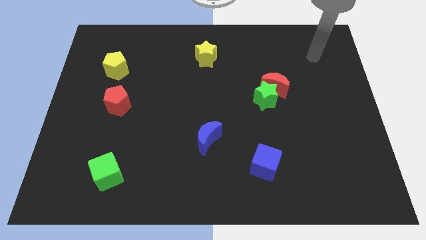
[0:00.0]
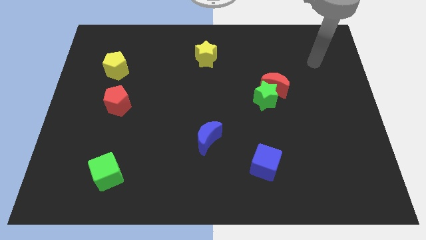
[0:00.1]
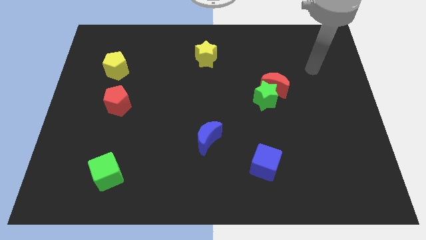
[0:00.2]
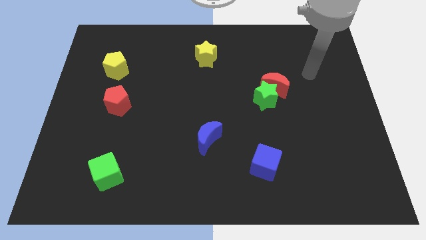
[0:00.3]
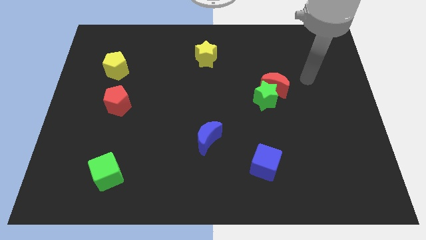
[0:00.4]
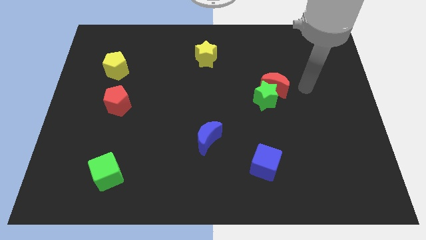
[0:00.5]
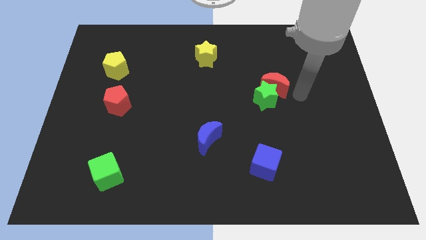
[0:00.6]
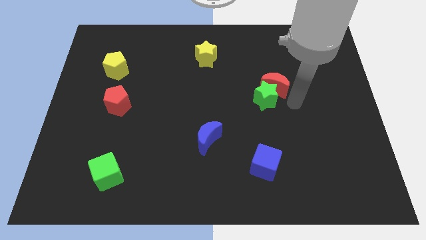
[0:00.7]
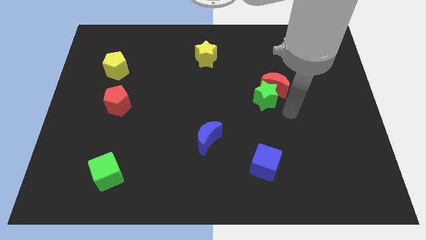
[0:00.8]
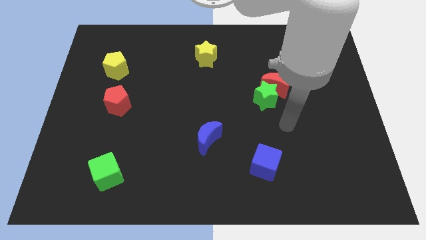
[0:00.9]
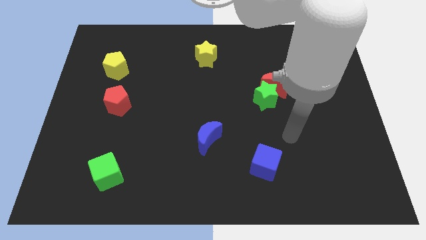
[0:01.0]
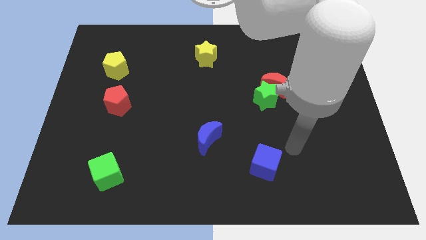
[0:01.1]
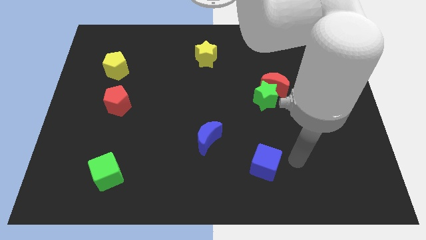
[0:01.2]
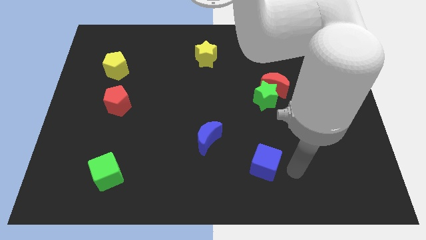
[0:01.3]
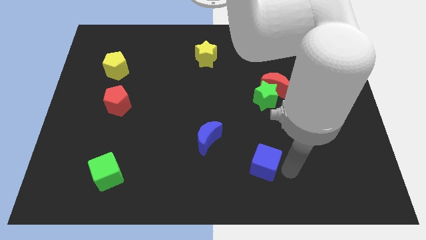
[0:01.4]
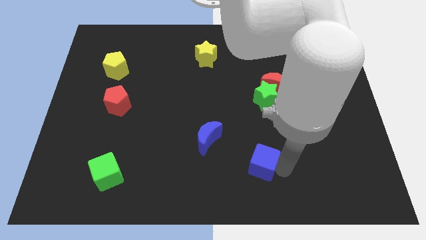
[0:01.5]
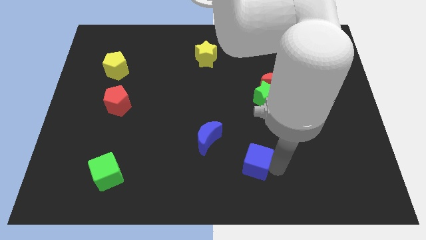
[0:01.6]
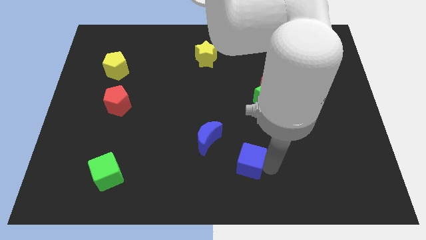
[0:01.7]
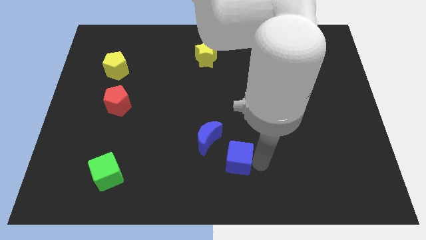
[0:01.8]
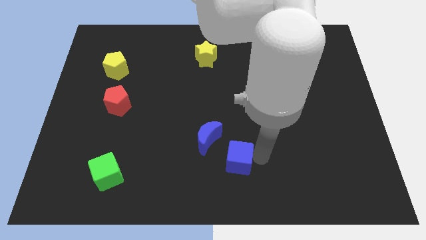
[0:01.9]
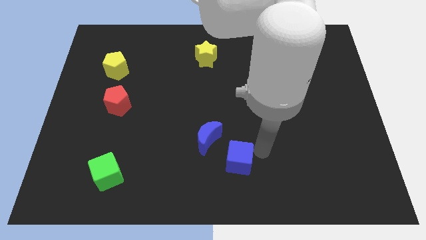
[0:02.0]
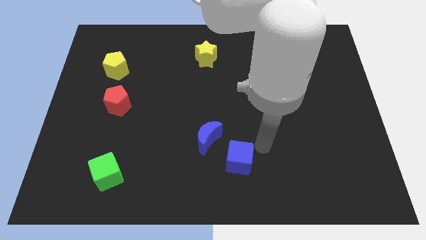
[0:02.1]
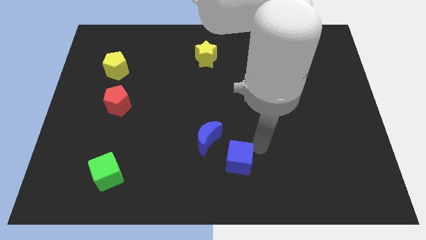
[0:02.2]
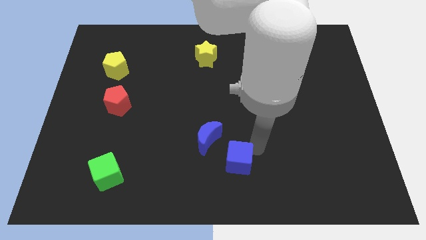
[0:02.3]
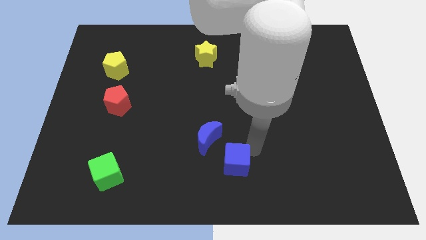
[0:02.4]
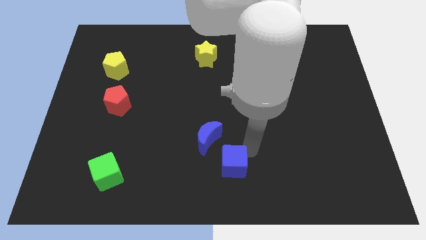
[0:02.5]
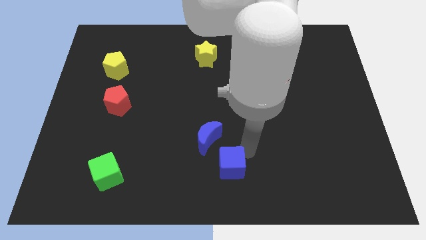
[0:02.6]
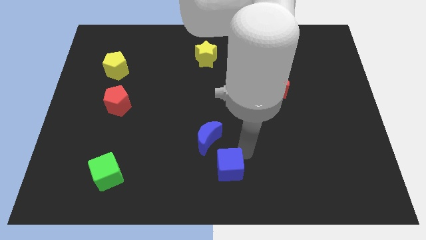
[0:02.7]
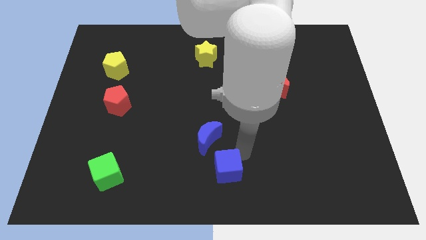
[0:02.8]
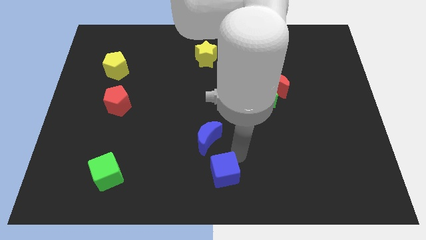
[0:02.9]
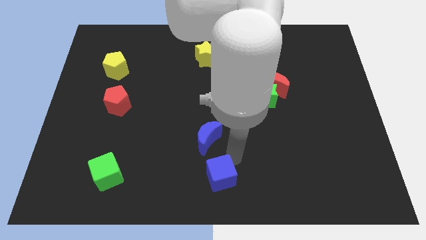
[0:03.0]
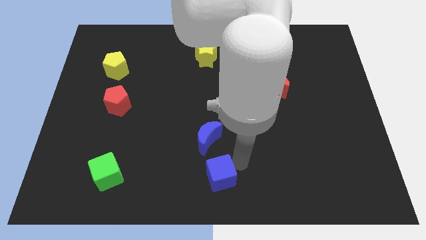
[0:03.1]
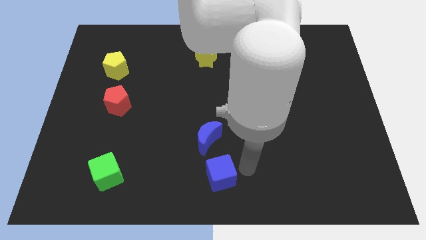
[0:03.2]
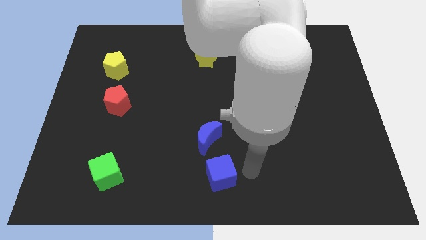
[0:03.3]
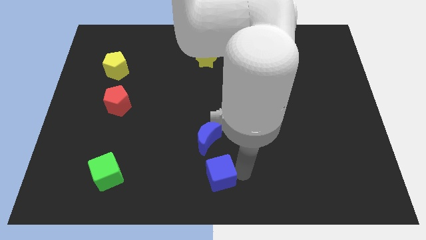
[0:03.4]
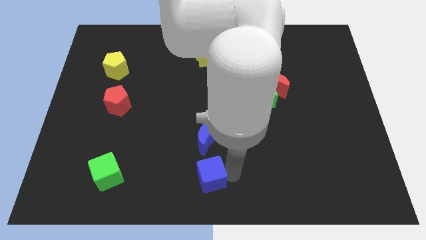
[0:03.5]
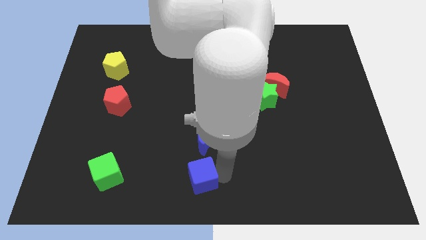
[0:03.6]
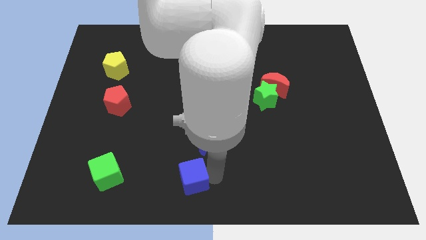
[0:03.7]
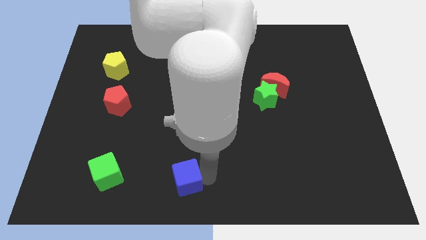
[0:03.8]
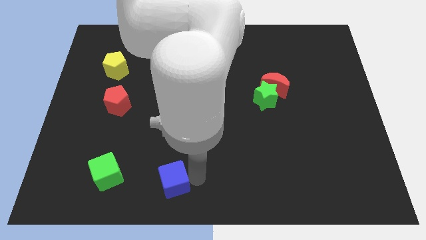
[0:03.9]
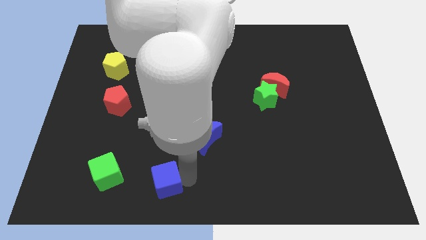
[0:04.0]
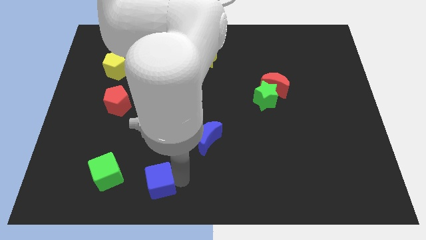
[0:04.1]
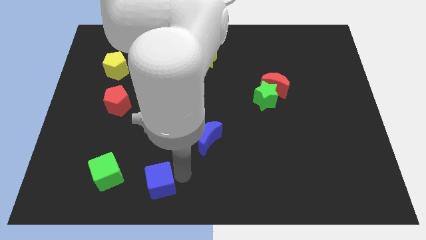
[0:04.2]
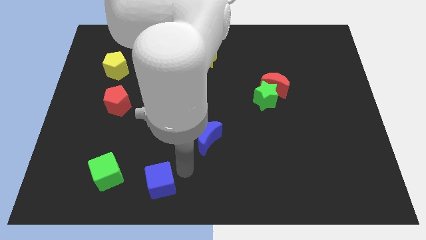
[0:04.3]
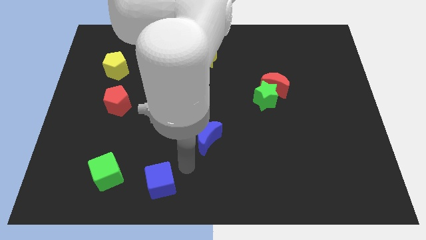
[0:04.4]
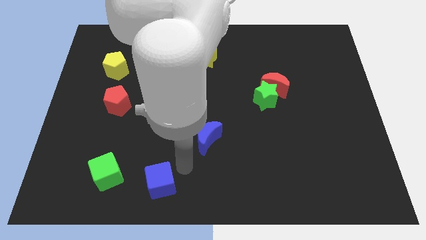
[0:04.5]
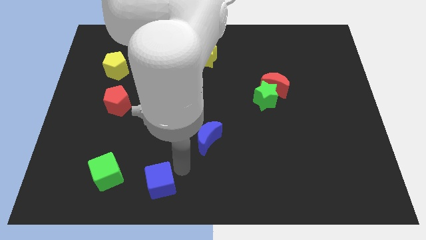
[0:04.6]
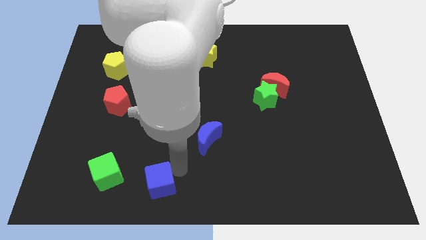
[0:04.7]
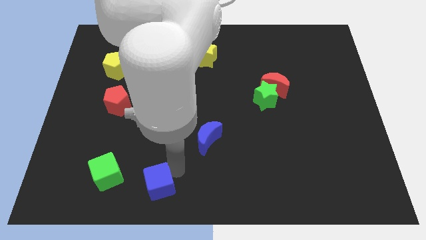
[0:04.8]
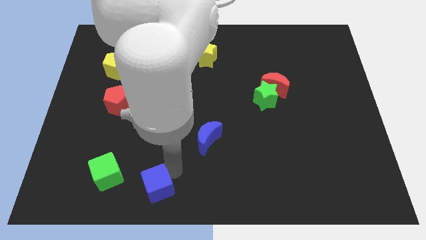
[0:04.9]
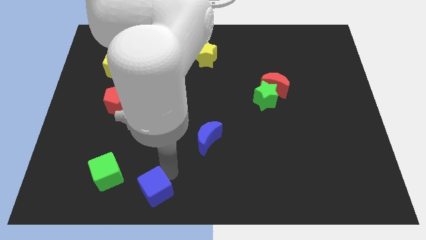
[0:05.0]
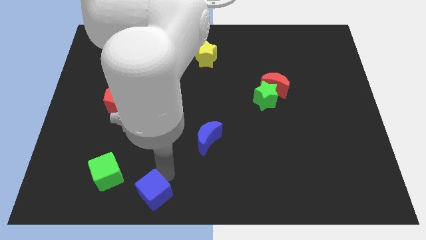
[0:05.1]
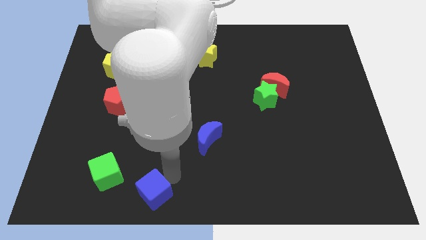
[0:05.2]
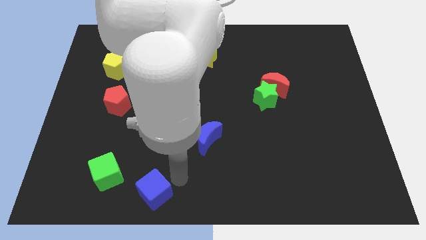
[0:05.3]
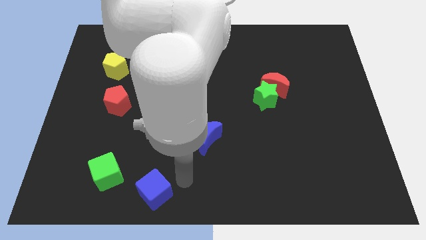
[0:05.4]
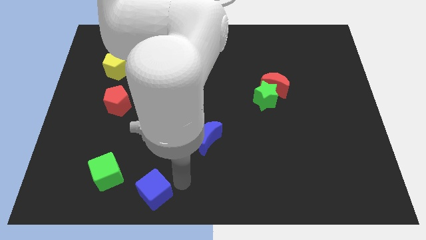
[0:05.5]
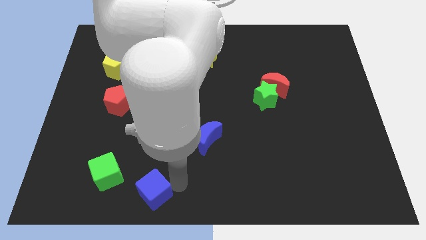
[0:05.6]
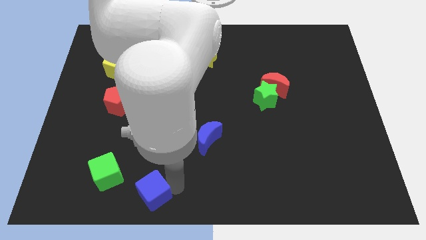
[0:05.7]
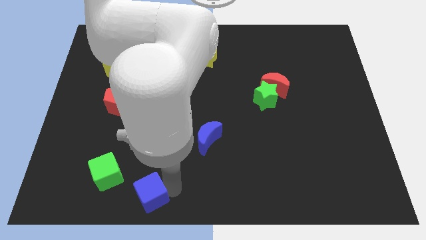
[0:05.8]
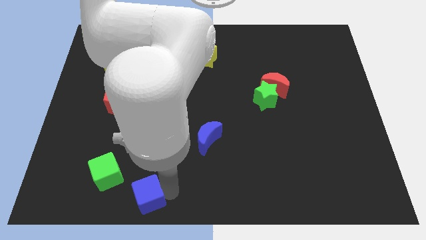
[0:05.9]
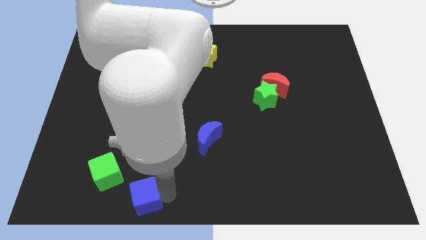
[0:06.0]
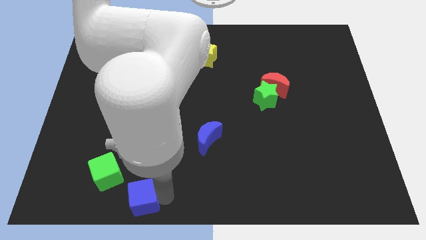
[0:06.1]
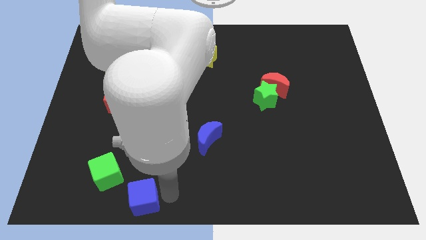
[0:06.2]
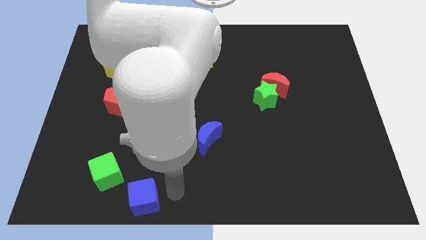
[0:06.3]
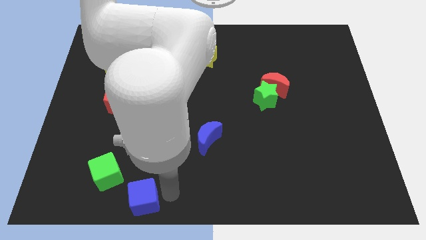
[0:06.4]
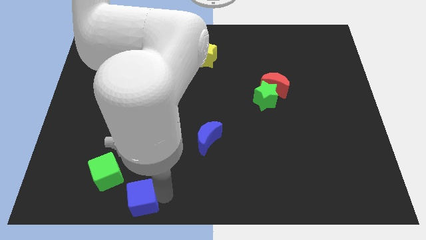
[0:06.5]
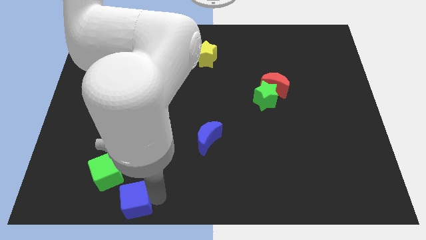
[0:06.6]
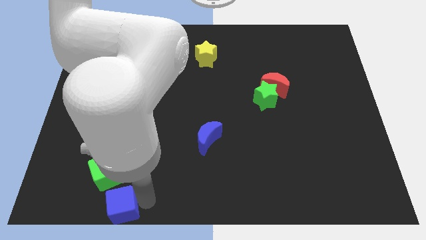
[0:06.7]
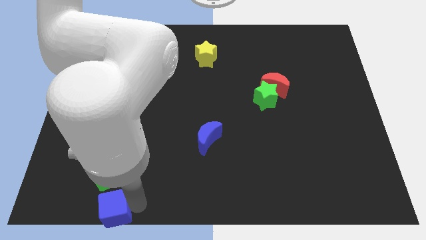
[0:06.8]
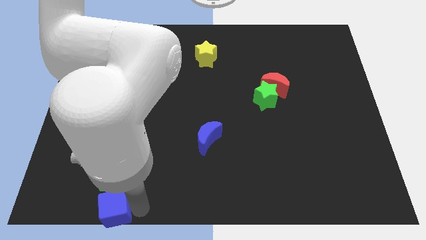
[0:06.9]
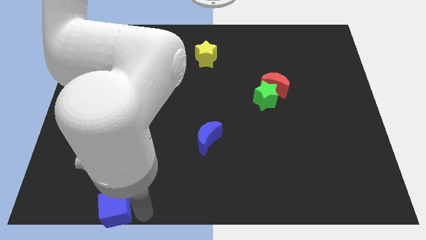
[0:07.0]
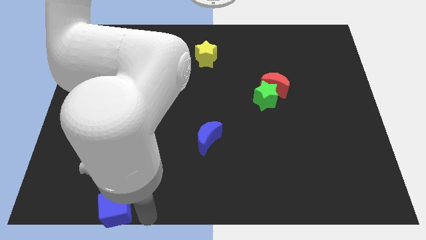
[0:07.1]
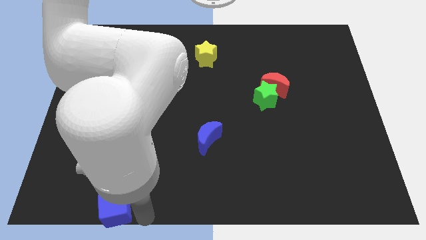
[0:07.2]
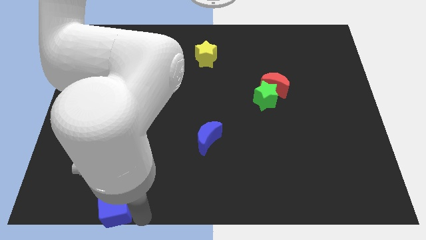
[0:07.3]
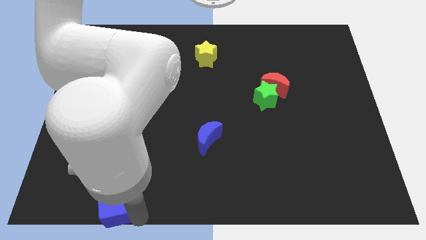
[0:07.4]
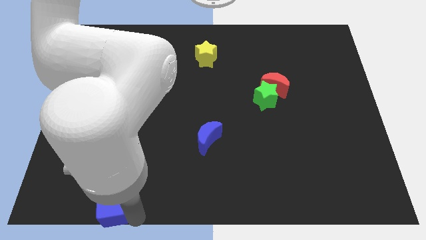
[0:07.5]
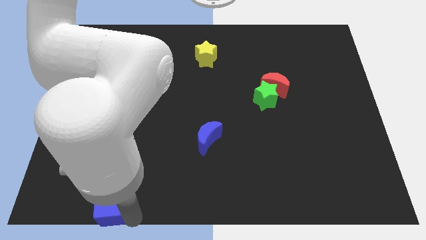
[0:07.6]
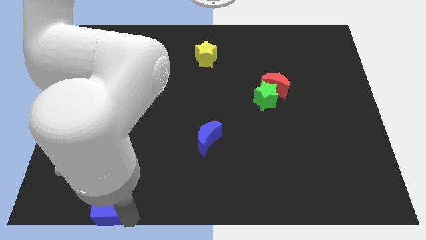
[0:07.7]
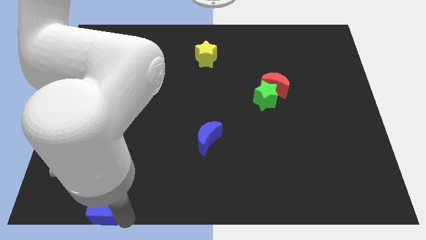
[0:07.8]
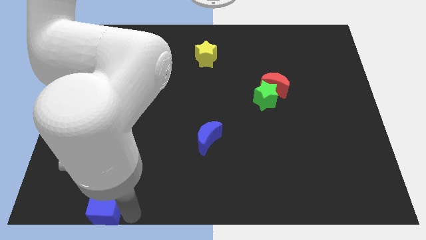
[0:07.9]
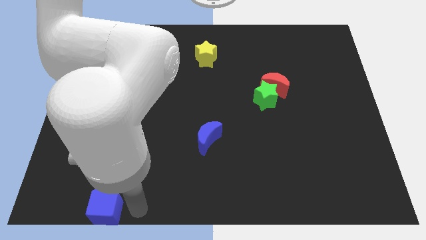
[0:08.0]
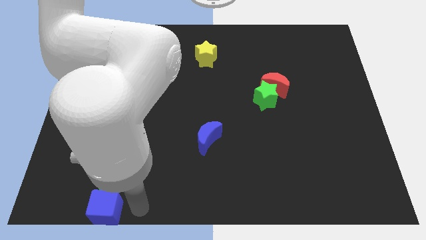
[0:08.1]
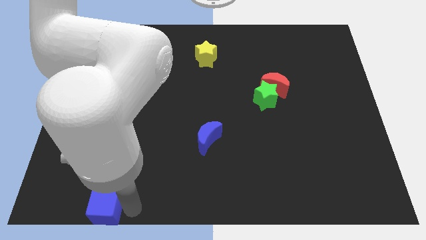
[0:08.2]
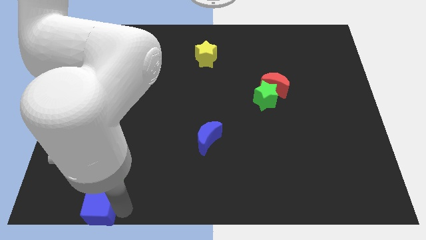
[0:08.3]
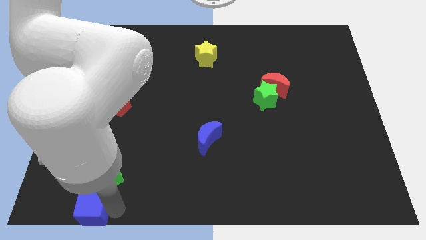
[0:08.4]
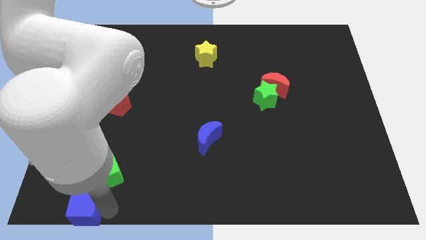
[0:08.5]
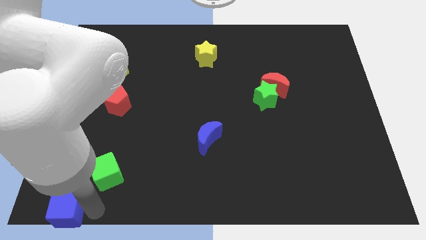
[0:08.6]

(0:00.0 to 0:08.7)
put the blue cube to the bottom left of the board
